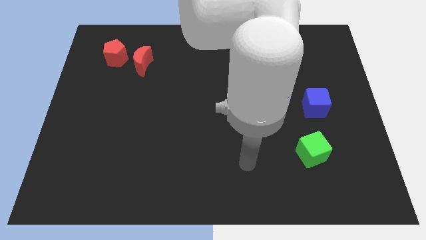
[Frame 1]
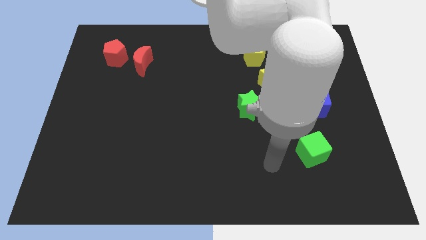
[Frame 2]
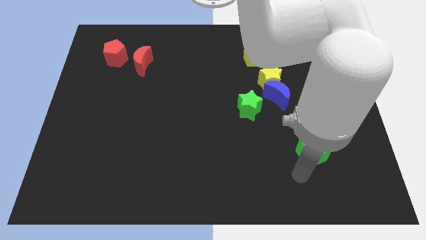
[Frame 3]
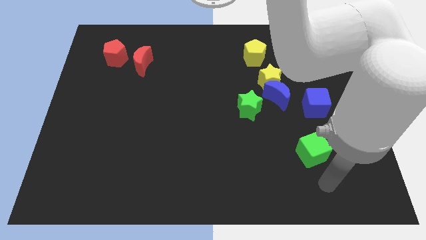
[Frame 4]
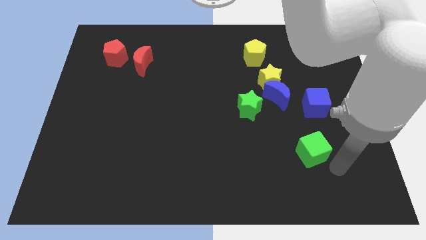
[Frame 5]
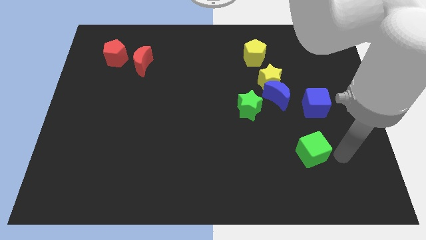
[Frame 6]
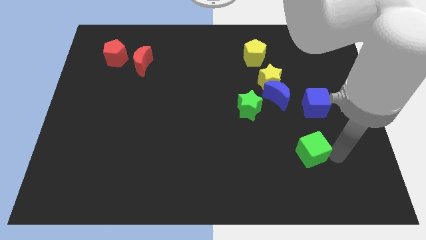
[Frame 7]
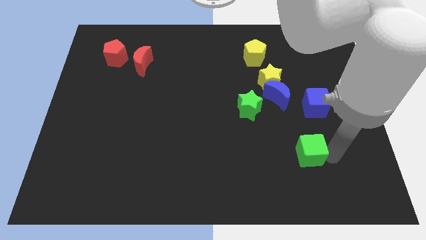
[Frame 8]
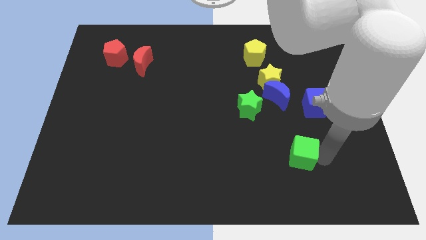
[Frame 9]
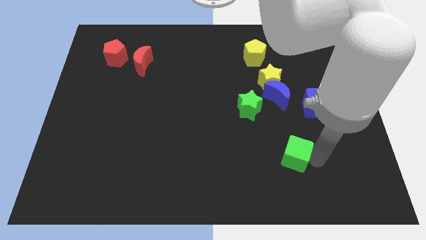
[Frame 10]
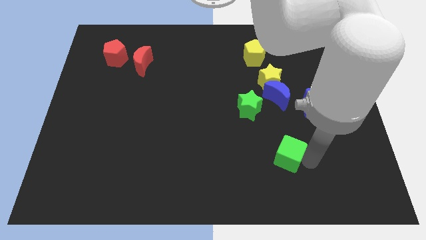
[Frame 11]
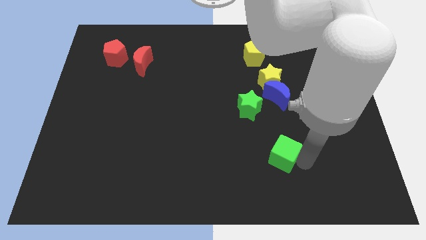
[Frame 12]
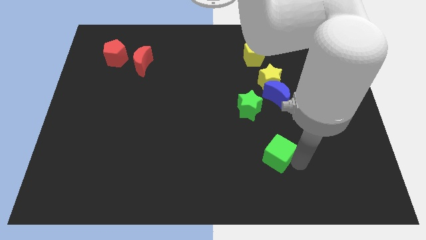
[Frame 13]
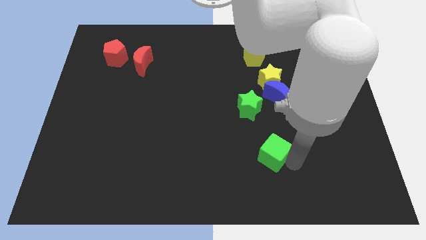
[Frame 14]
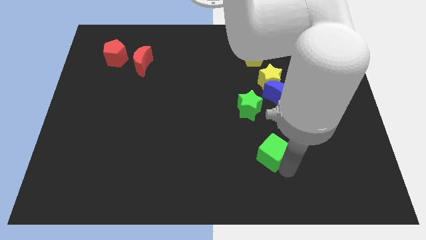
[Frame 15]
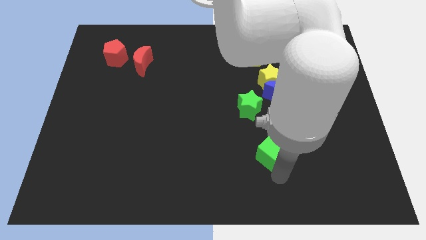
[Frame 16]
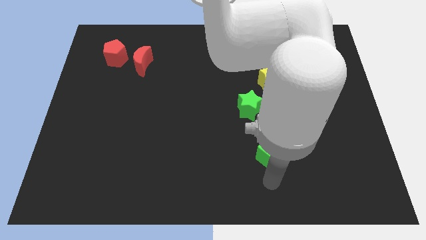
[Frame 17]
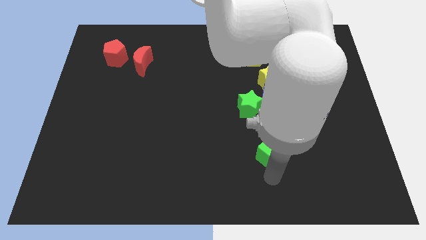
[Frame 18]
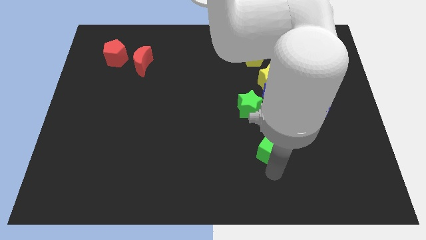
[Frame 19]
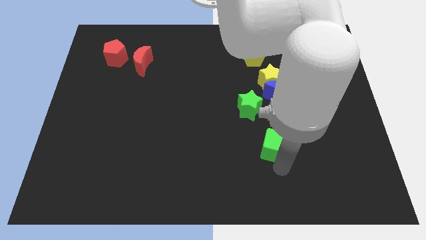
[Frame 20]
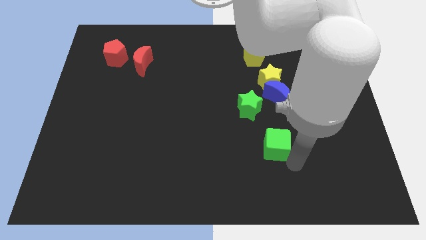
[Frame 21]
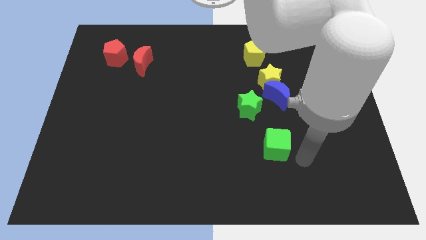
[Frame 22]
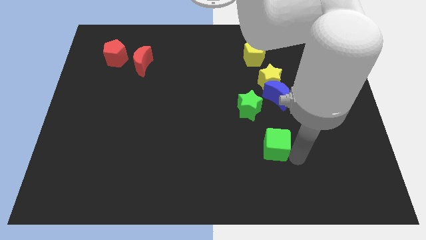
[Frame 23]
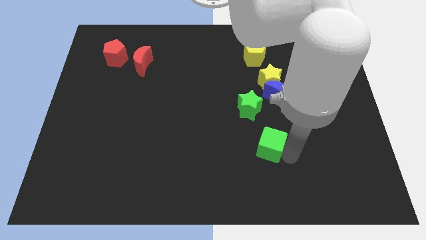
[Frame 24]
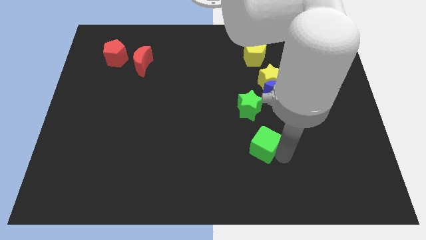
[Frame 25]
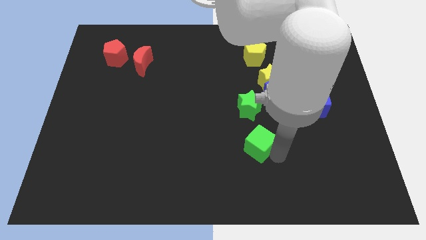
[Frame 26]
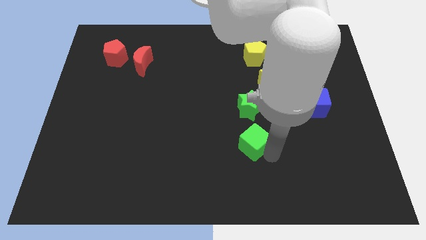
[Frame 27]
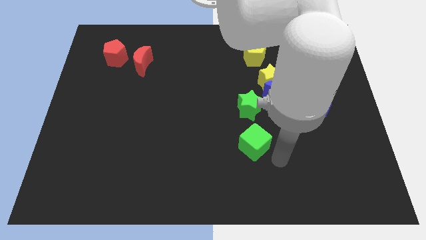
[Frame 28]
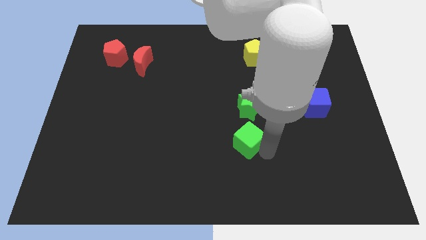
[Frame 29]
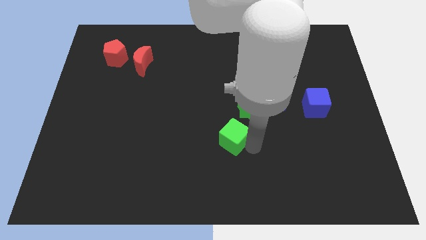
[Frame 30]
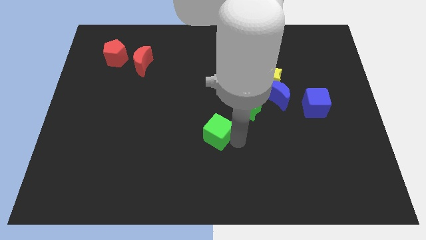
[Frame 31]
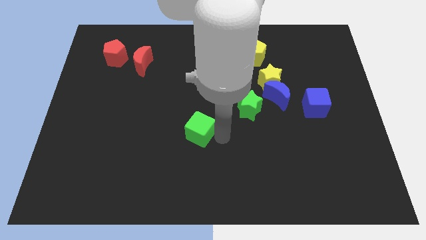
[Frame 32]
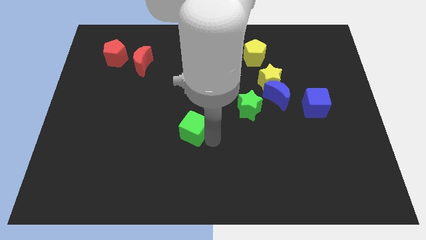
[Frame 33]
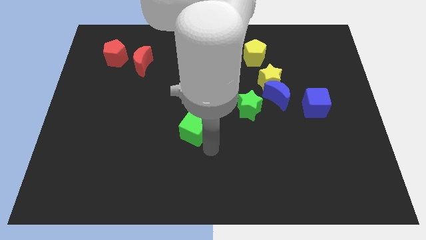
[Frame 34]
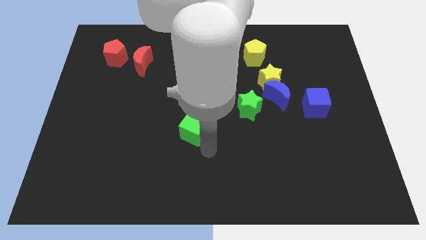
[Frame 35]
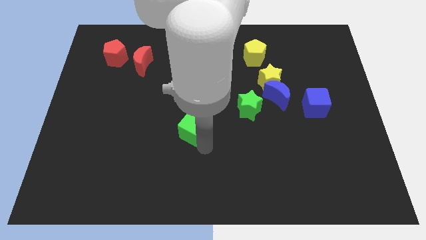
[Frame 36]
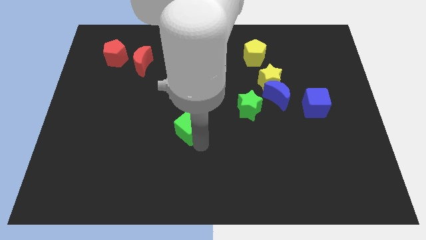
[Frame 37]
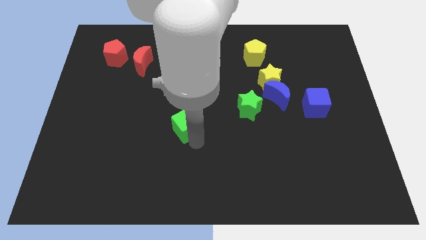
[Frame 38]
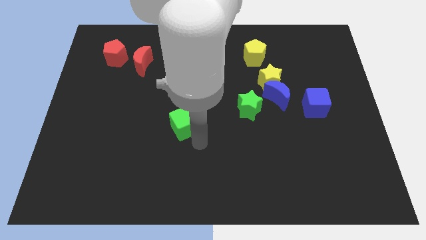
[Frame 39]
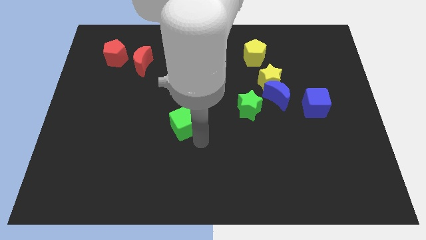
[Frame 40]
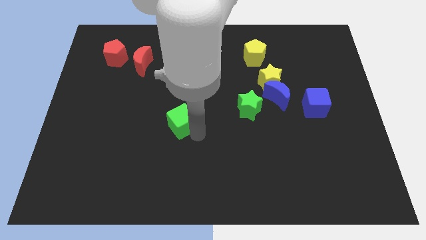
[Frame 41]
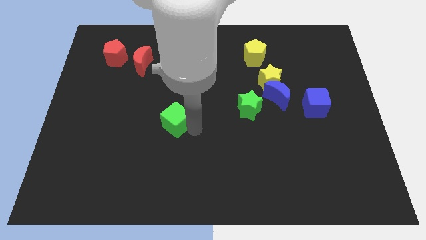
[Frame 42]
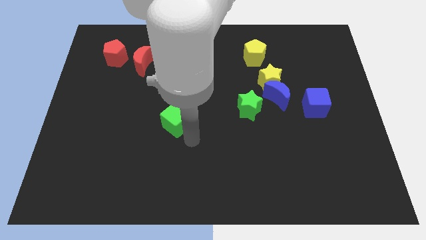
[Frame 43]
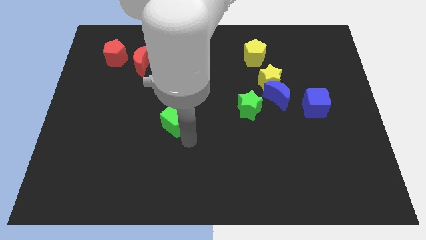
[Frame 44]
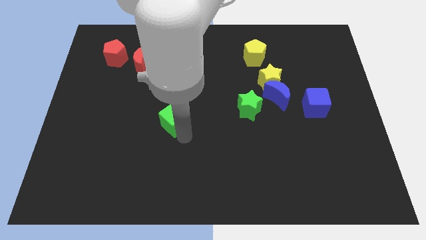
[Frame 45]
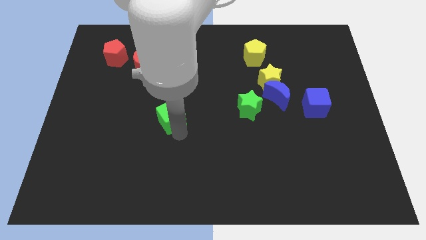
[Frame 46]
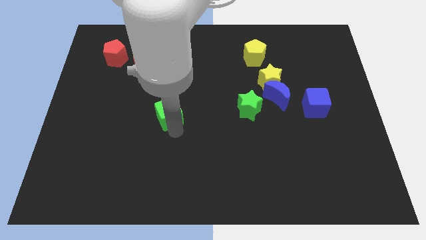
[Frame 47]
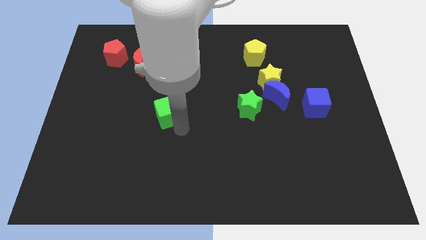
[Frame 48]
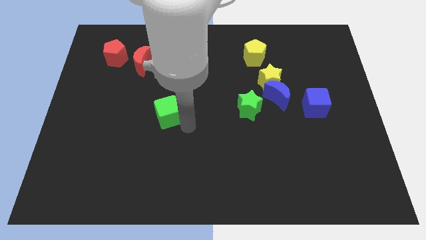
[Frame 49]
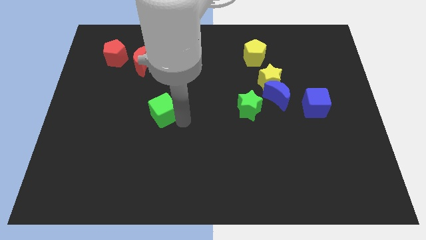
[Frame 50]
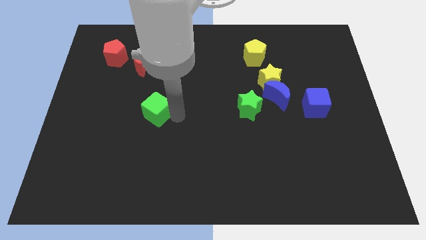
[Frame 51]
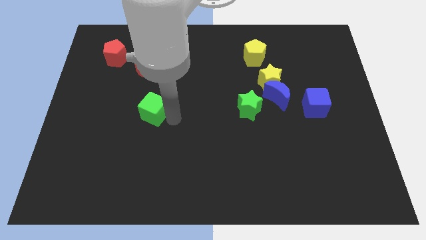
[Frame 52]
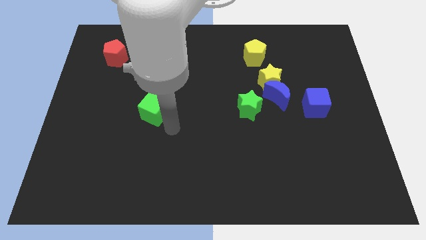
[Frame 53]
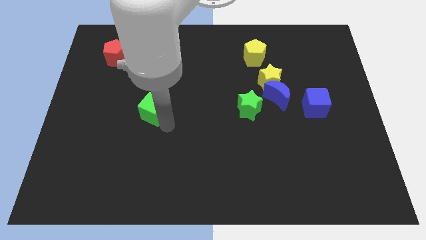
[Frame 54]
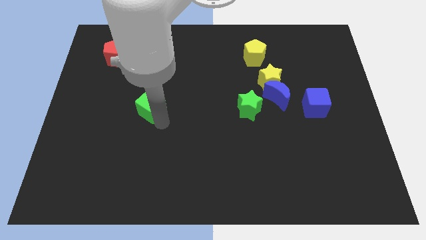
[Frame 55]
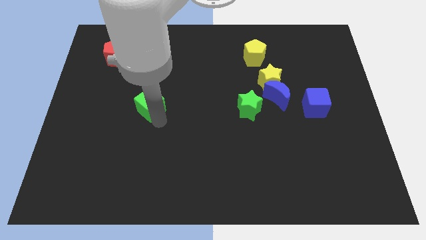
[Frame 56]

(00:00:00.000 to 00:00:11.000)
move the green cube to the bottom of the red moon

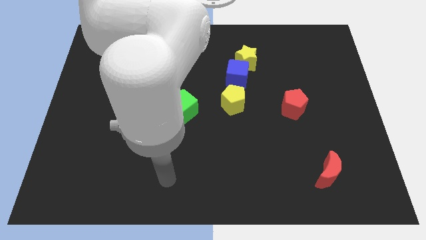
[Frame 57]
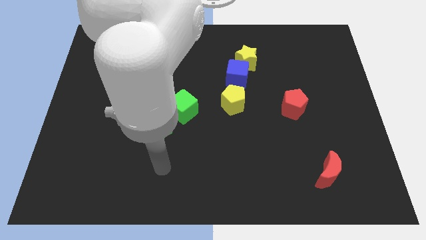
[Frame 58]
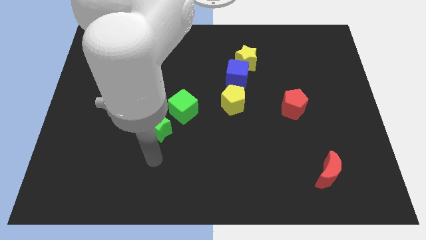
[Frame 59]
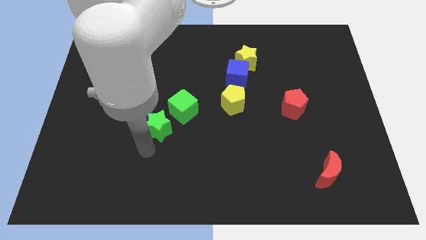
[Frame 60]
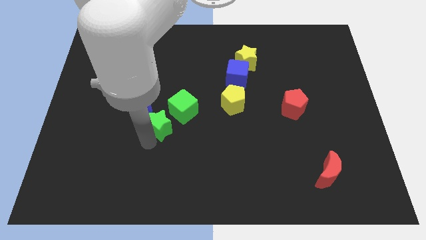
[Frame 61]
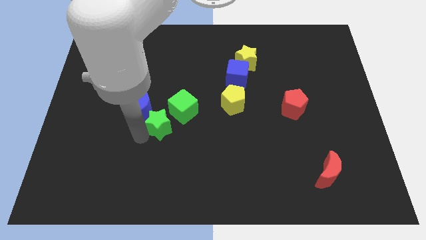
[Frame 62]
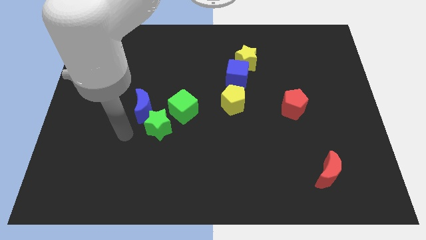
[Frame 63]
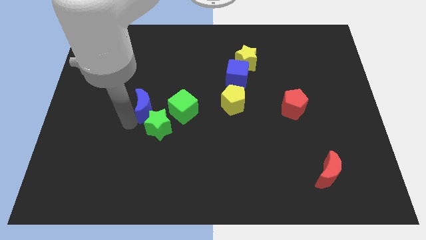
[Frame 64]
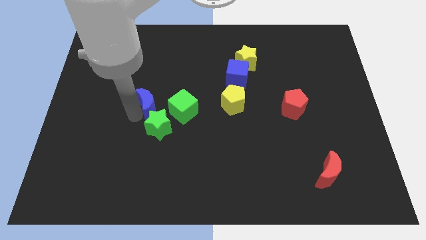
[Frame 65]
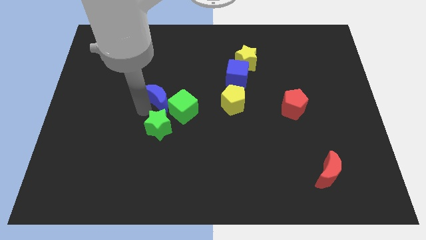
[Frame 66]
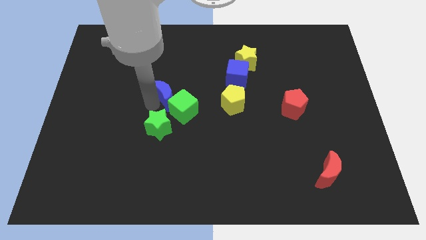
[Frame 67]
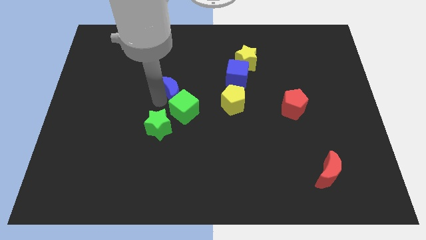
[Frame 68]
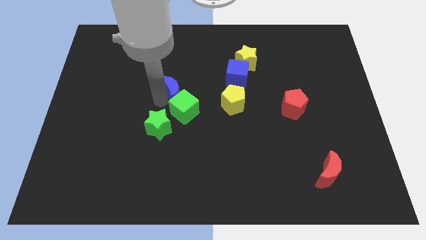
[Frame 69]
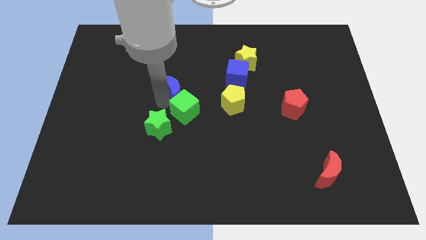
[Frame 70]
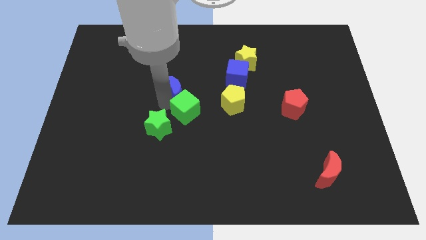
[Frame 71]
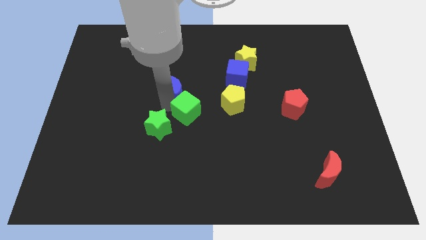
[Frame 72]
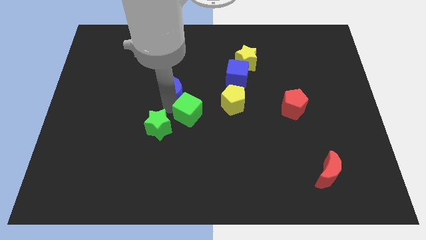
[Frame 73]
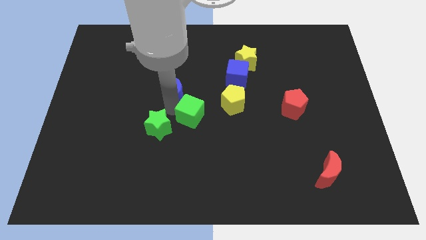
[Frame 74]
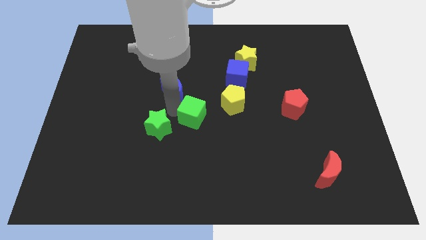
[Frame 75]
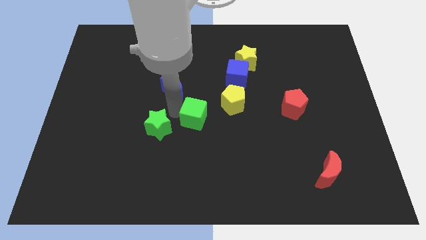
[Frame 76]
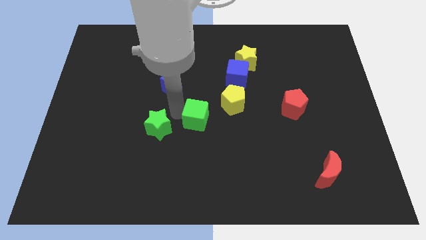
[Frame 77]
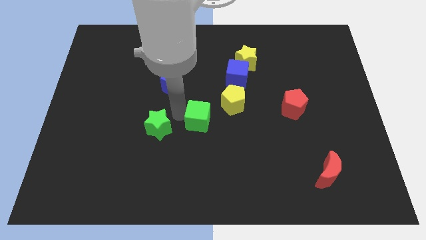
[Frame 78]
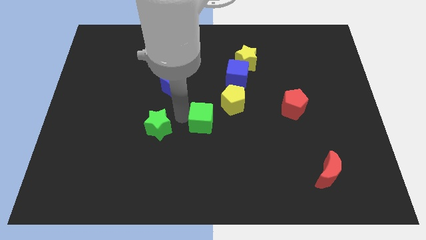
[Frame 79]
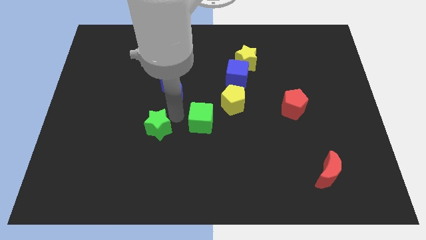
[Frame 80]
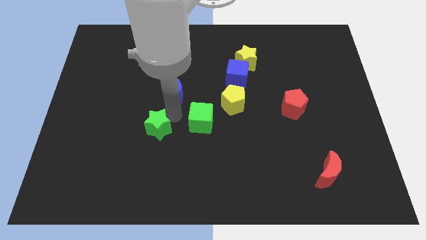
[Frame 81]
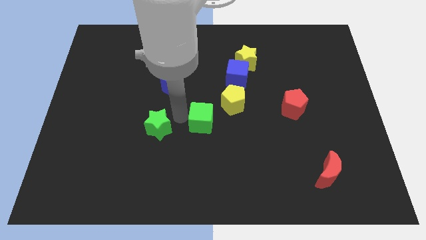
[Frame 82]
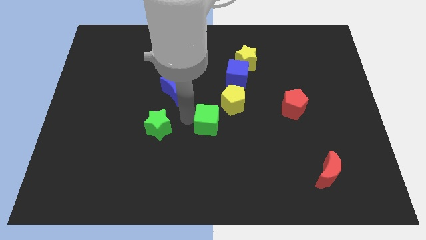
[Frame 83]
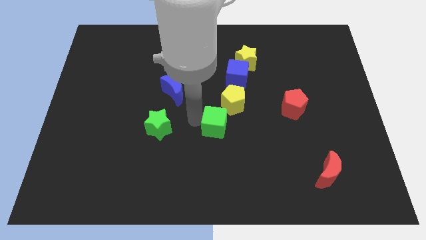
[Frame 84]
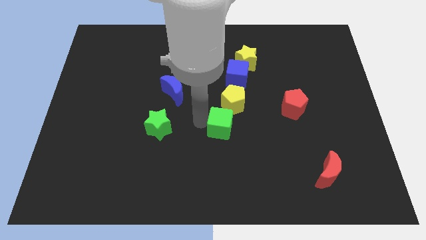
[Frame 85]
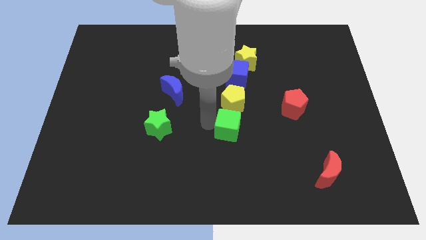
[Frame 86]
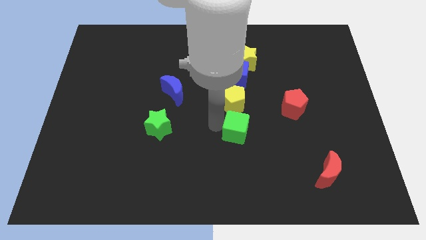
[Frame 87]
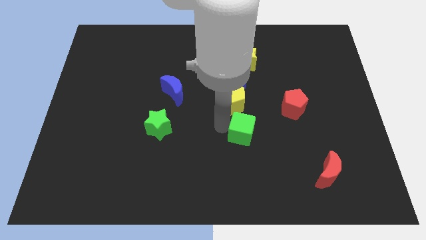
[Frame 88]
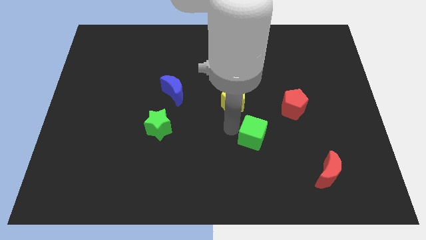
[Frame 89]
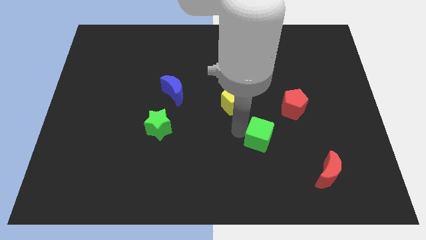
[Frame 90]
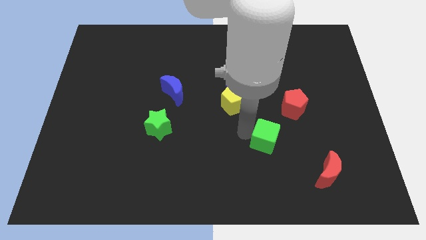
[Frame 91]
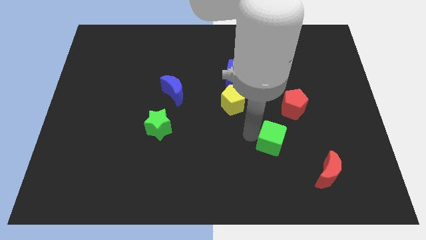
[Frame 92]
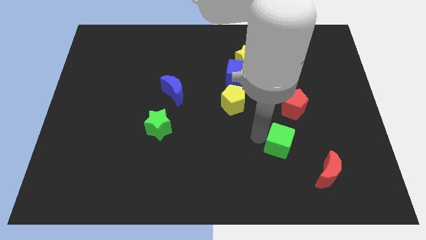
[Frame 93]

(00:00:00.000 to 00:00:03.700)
move the green cube to the top left of the red moon
